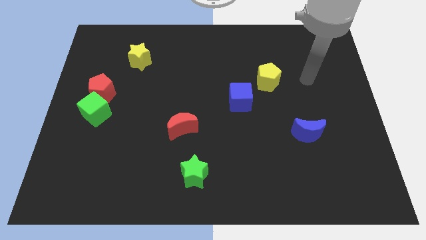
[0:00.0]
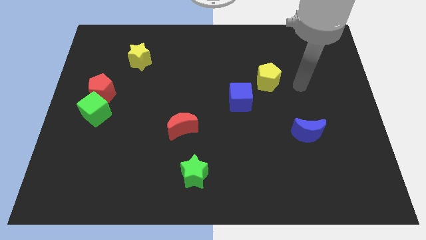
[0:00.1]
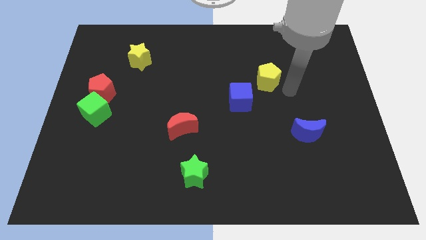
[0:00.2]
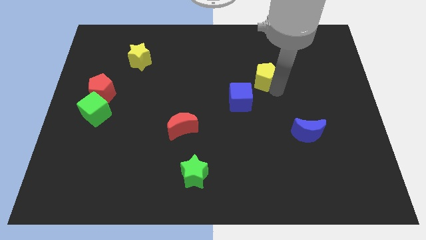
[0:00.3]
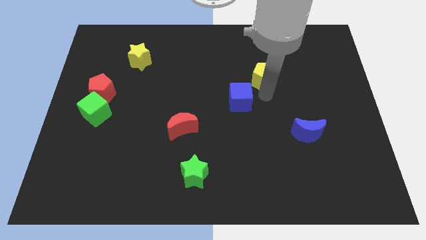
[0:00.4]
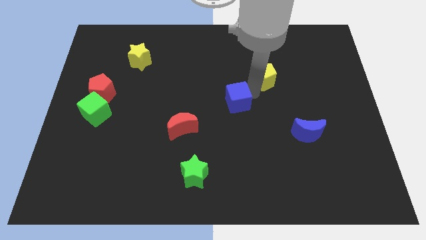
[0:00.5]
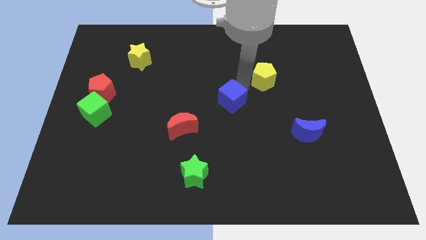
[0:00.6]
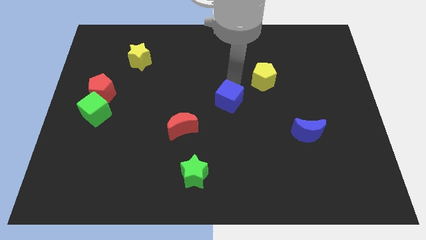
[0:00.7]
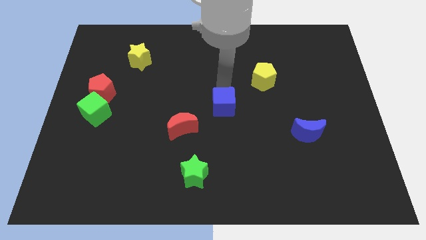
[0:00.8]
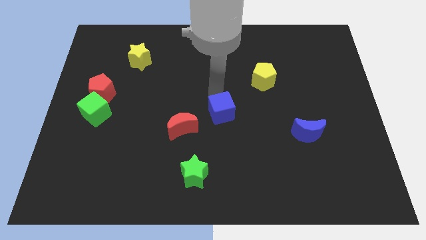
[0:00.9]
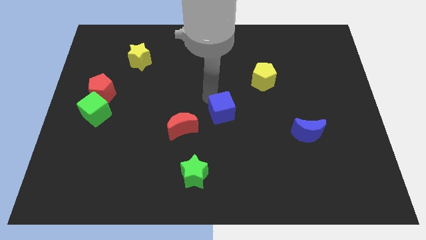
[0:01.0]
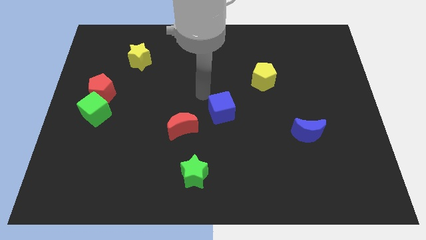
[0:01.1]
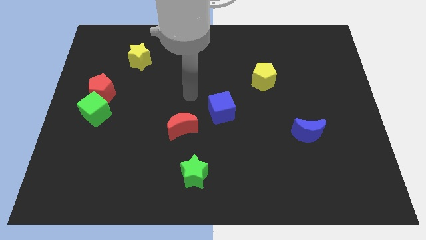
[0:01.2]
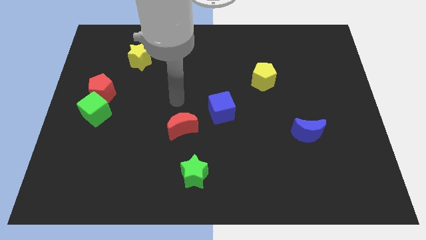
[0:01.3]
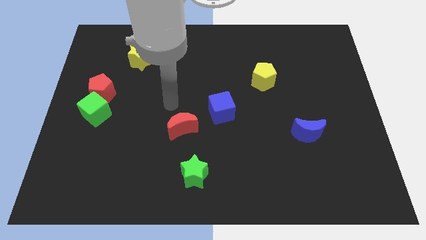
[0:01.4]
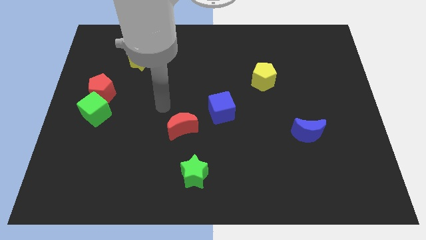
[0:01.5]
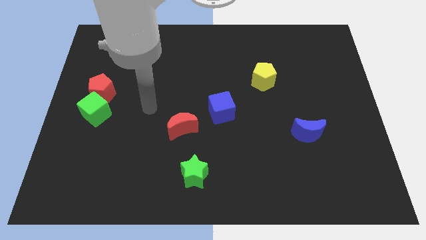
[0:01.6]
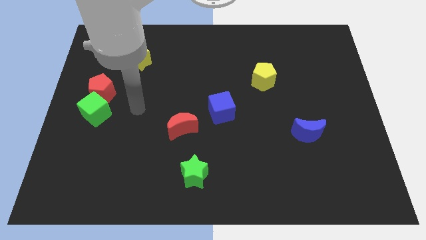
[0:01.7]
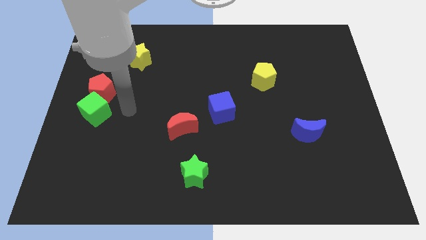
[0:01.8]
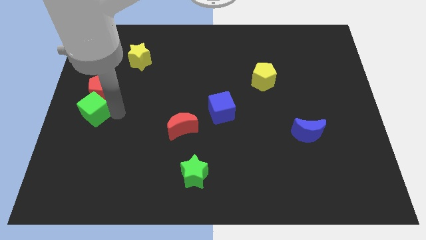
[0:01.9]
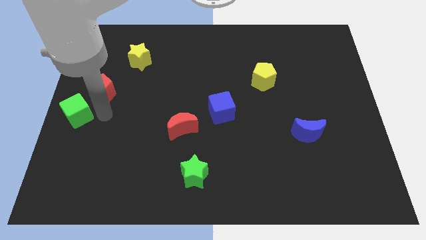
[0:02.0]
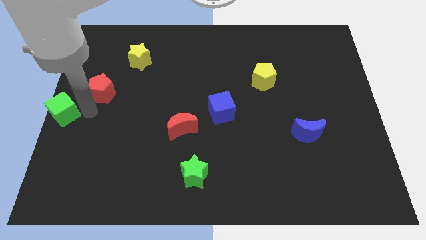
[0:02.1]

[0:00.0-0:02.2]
separate the red pentagon from the green cube

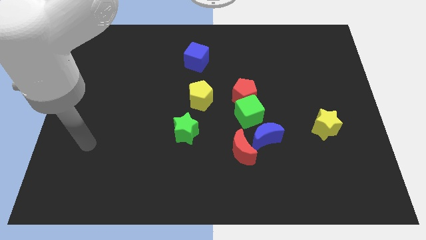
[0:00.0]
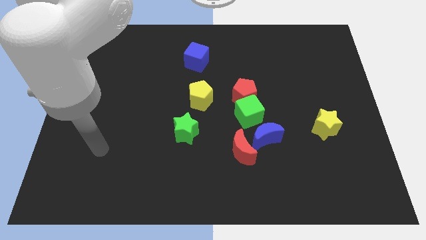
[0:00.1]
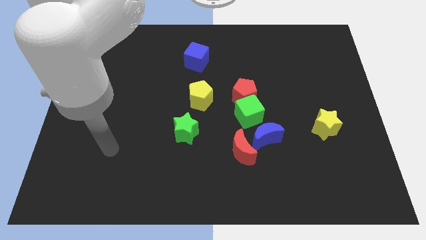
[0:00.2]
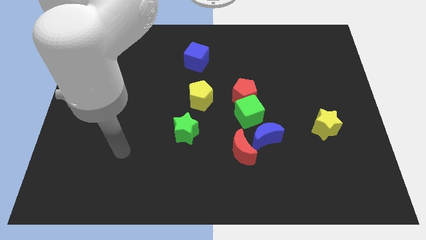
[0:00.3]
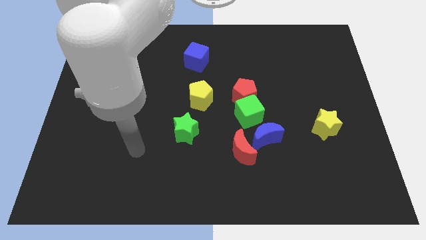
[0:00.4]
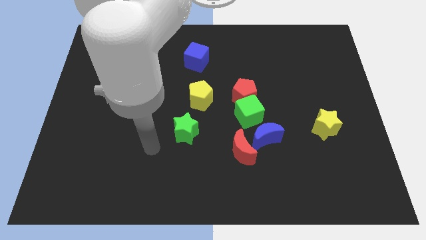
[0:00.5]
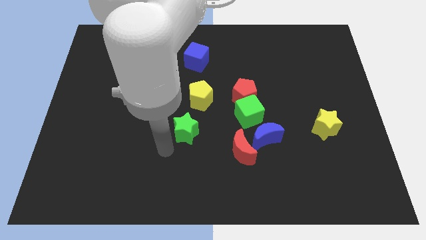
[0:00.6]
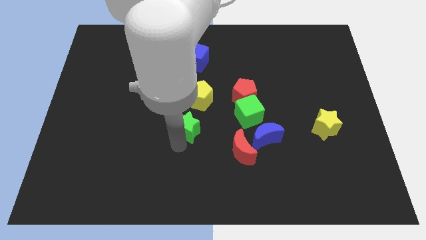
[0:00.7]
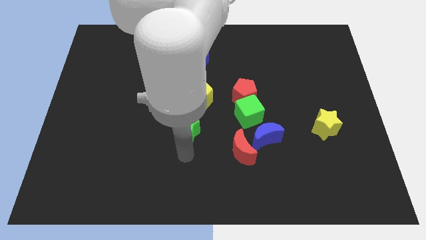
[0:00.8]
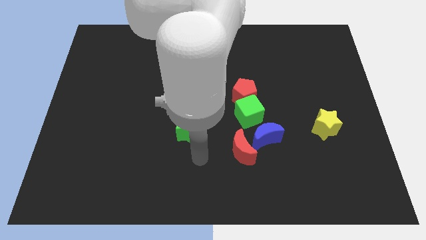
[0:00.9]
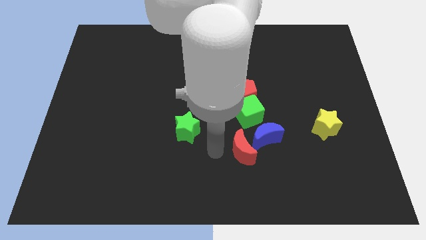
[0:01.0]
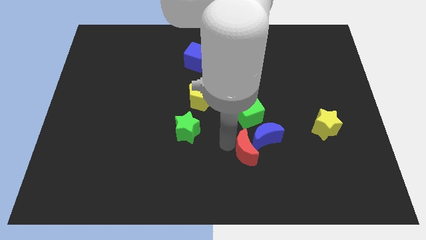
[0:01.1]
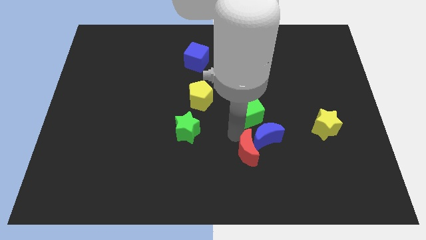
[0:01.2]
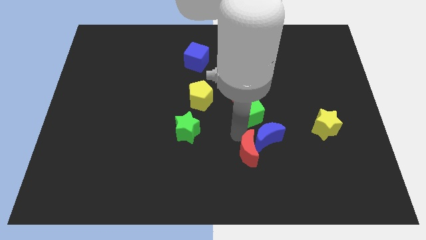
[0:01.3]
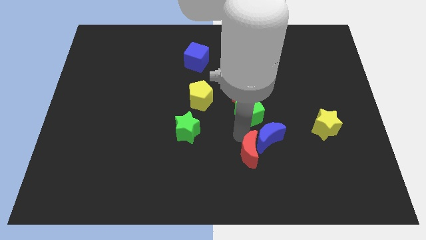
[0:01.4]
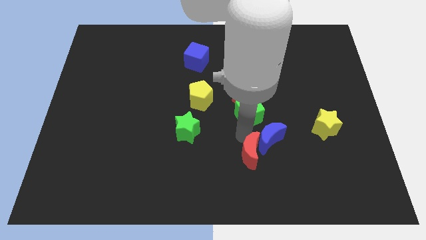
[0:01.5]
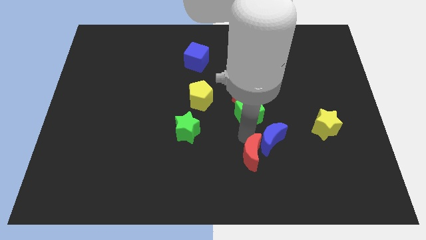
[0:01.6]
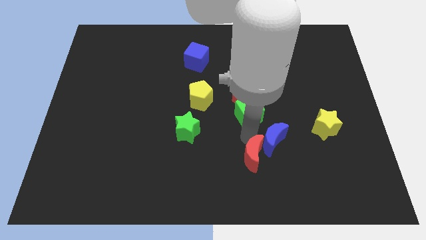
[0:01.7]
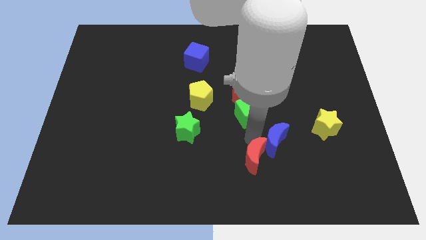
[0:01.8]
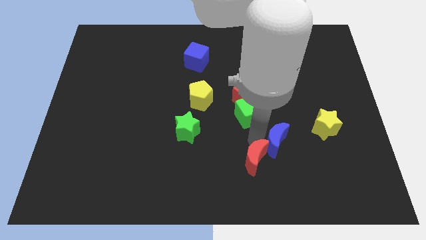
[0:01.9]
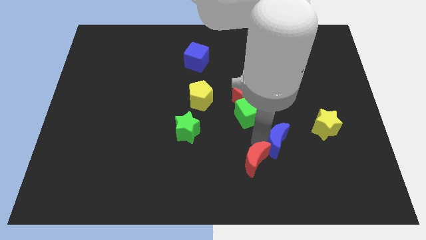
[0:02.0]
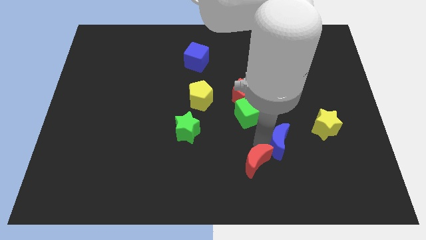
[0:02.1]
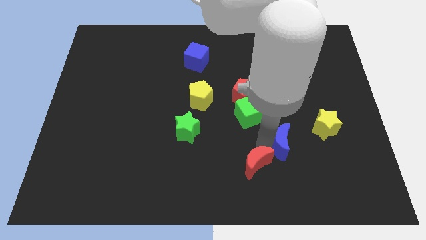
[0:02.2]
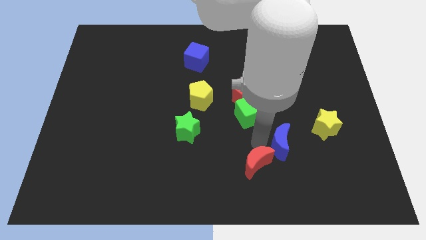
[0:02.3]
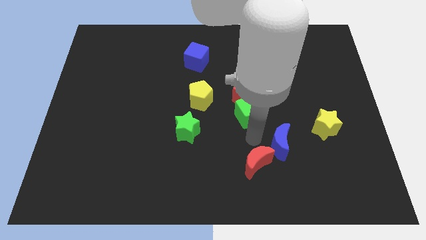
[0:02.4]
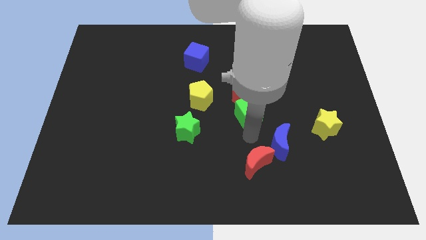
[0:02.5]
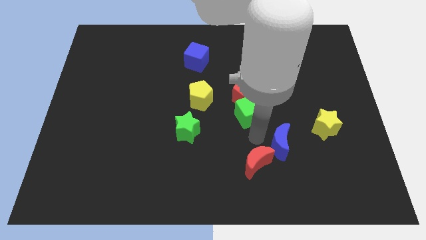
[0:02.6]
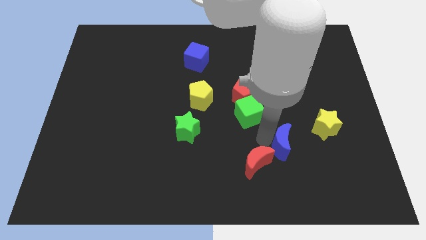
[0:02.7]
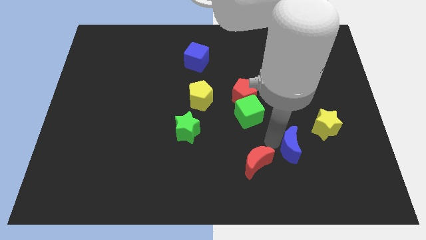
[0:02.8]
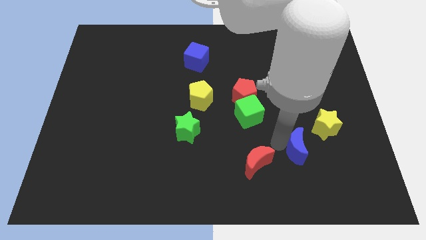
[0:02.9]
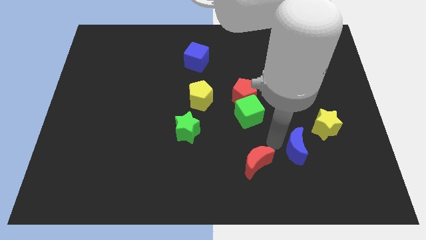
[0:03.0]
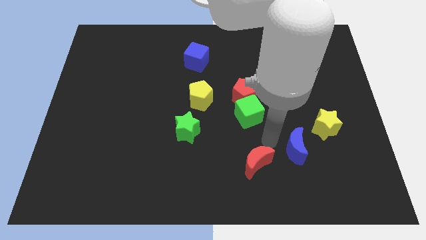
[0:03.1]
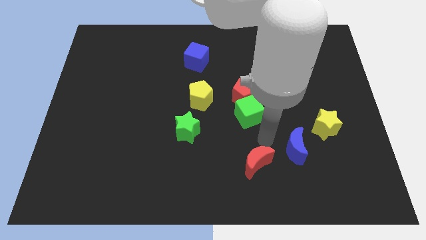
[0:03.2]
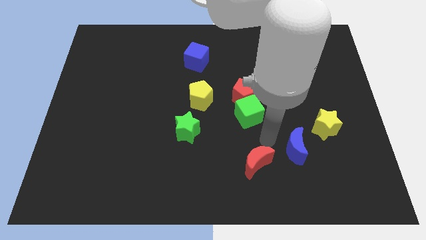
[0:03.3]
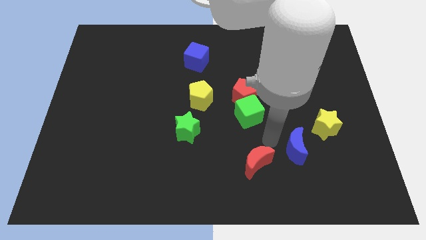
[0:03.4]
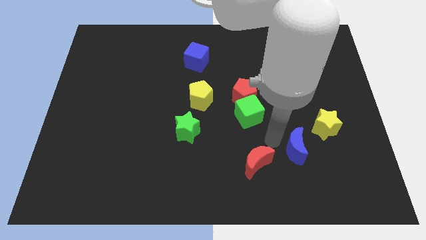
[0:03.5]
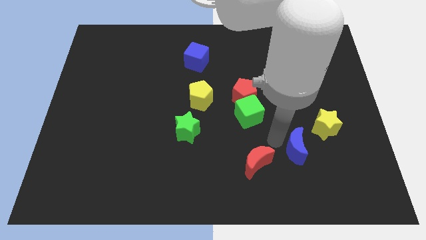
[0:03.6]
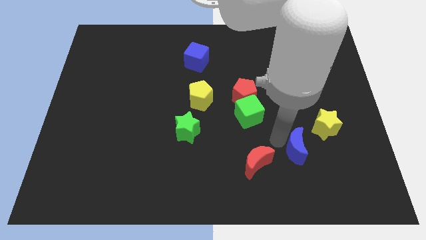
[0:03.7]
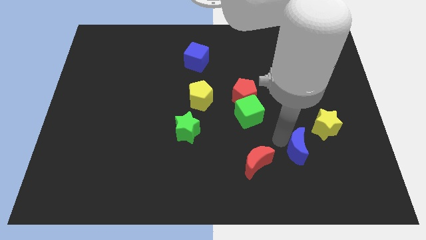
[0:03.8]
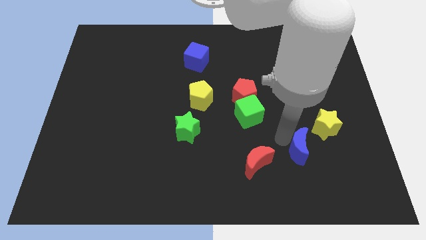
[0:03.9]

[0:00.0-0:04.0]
move the blue moon away from the red moon and green cube

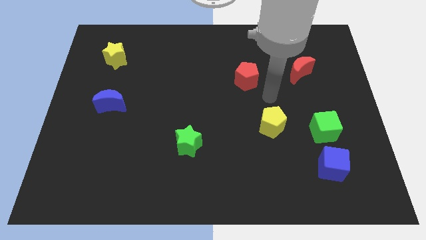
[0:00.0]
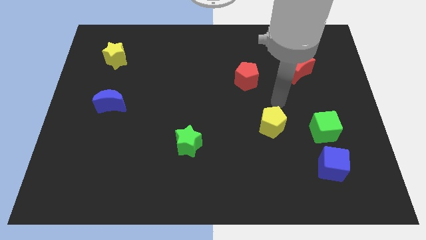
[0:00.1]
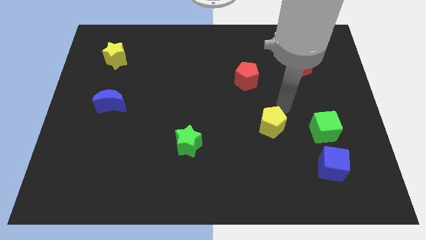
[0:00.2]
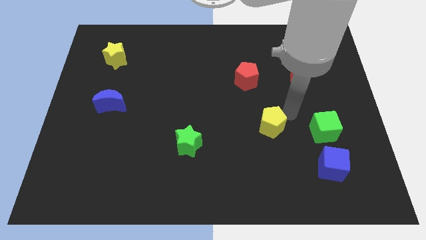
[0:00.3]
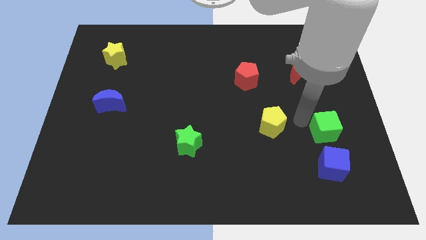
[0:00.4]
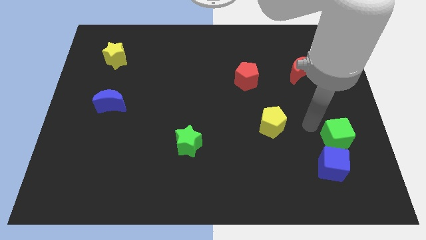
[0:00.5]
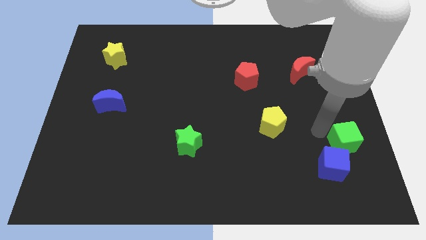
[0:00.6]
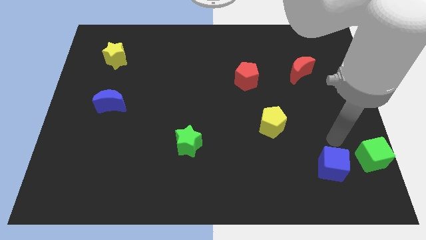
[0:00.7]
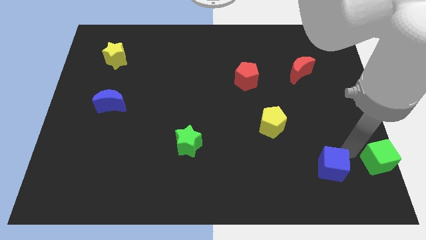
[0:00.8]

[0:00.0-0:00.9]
pull the blue cube apart from the green cube

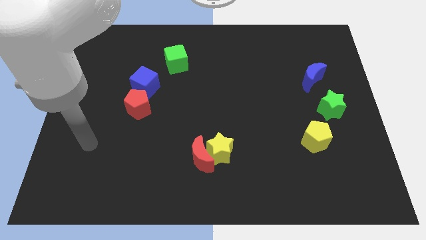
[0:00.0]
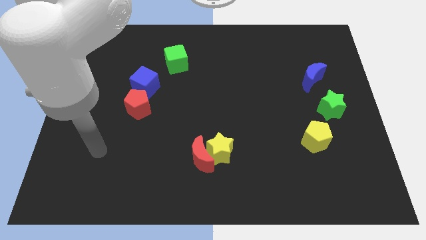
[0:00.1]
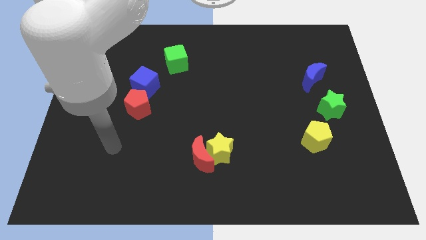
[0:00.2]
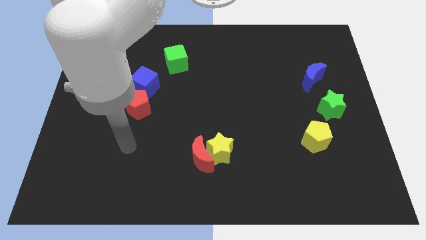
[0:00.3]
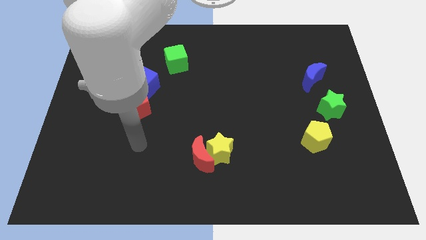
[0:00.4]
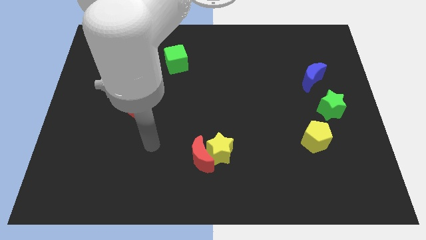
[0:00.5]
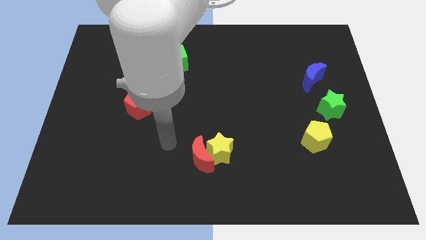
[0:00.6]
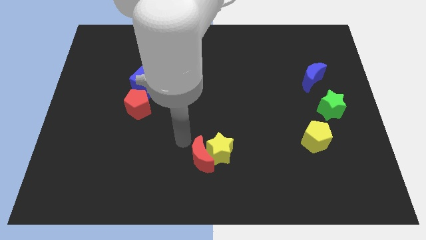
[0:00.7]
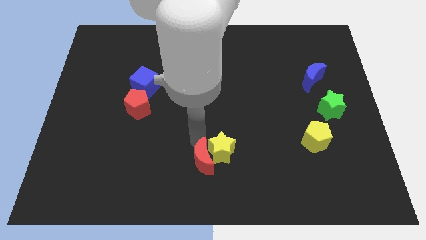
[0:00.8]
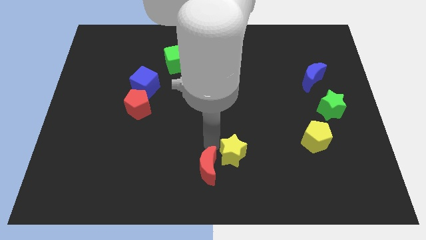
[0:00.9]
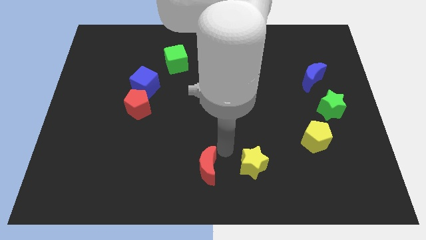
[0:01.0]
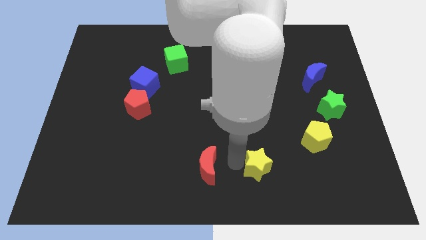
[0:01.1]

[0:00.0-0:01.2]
move the red moon away from the yellow star

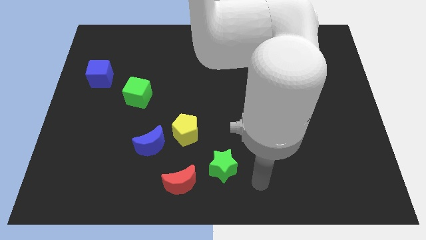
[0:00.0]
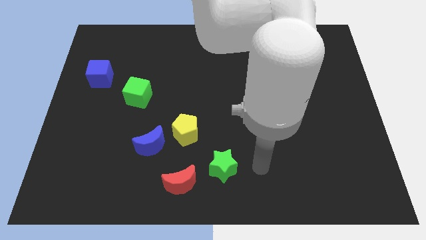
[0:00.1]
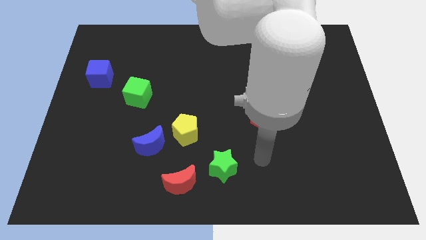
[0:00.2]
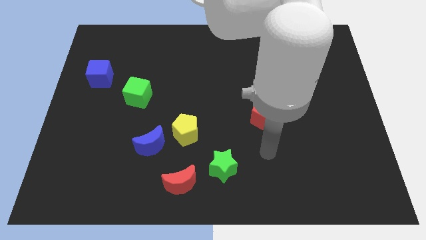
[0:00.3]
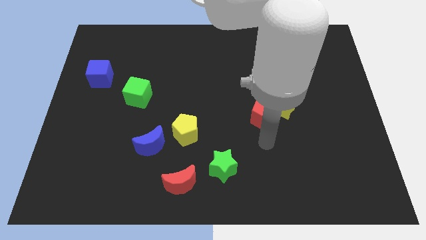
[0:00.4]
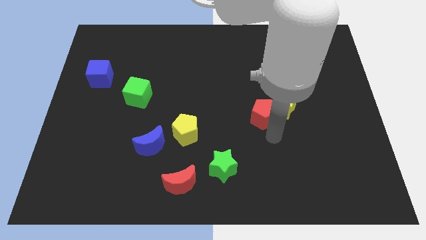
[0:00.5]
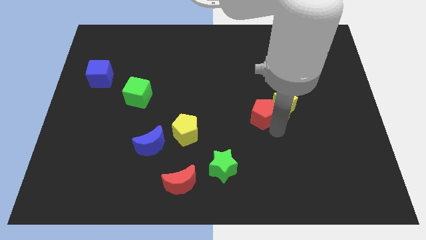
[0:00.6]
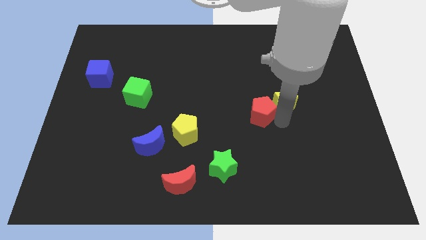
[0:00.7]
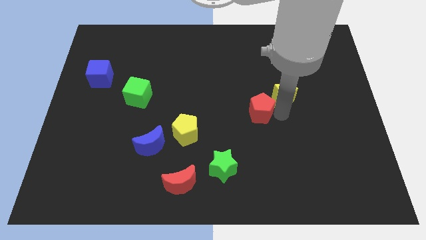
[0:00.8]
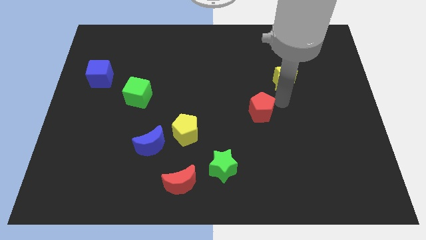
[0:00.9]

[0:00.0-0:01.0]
move the red pentagon away from the yellow star
